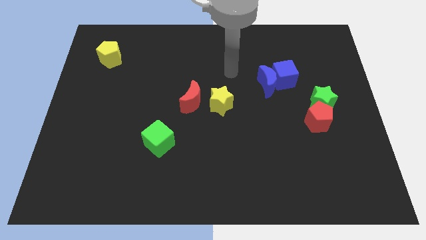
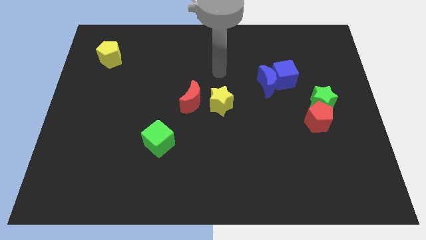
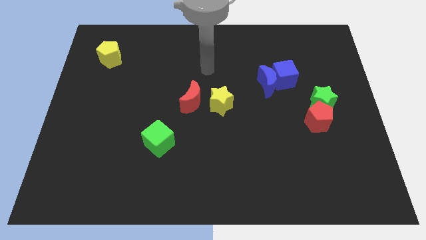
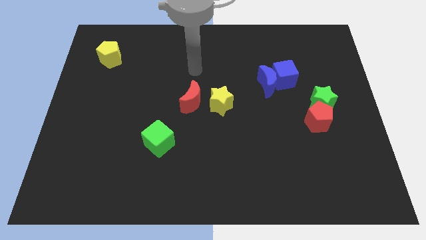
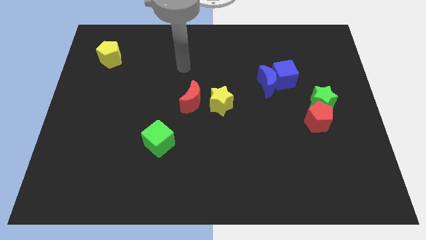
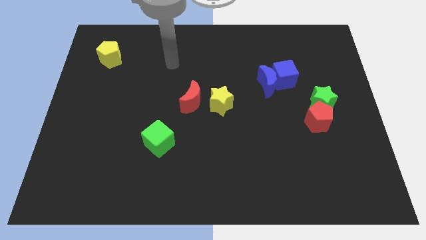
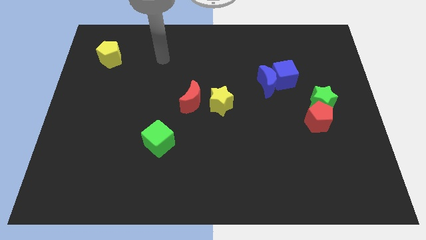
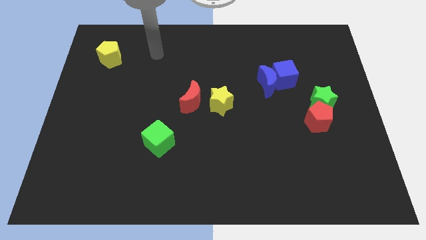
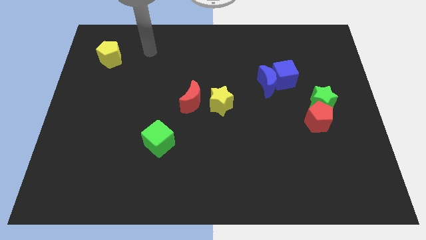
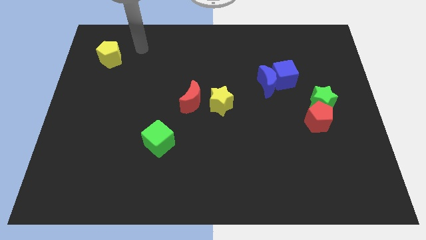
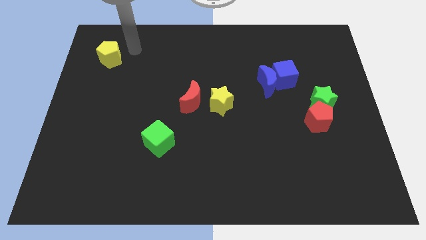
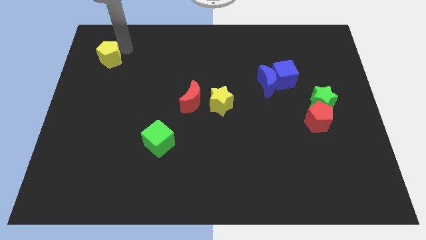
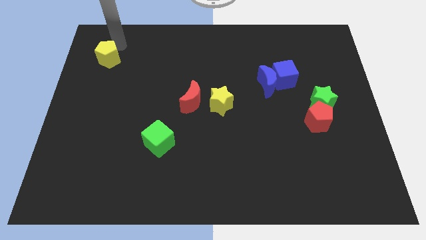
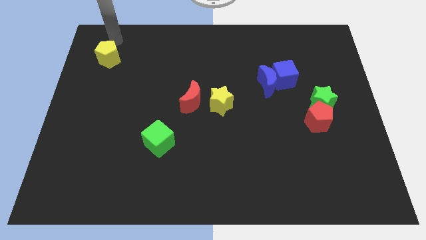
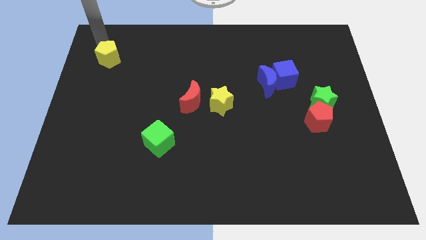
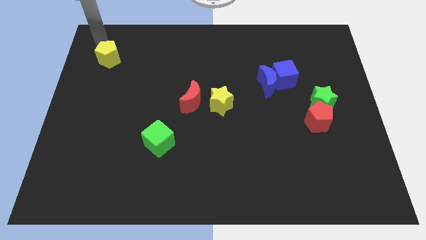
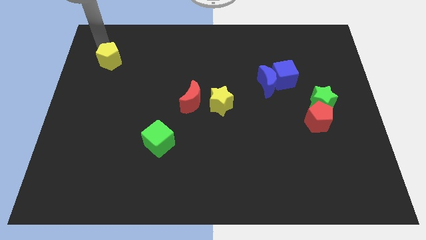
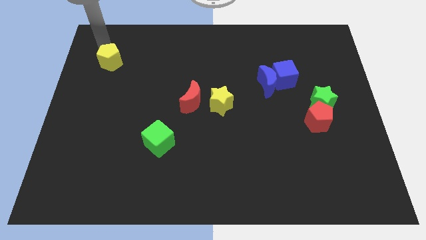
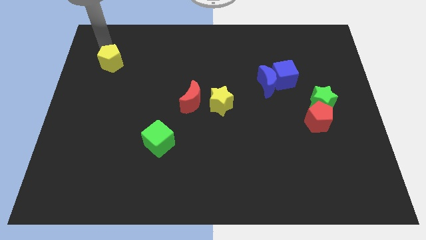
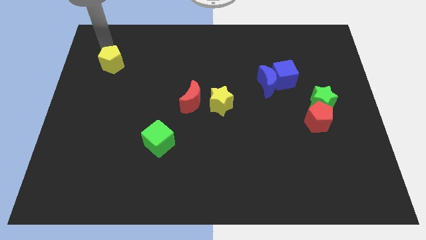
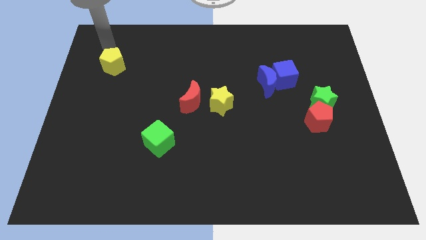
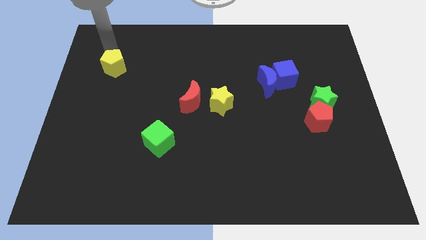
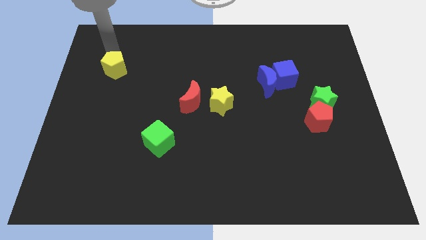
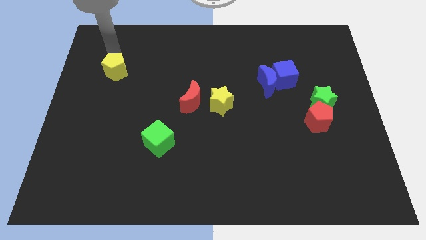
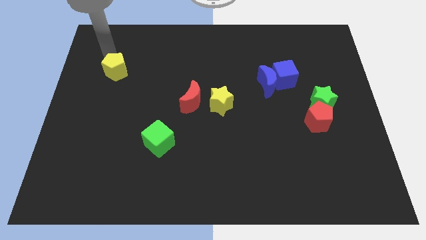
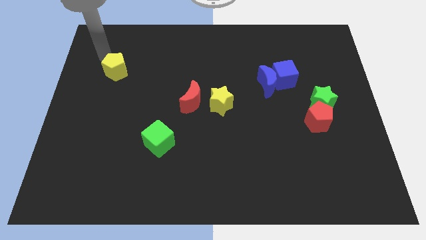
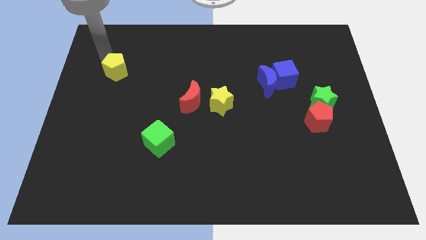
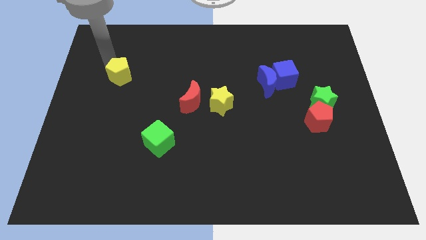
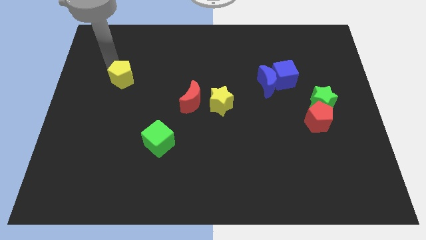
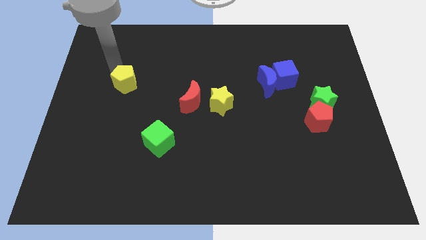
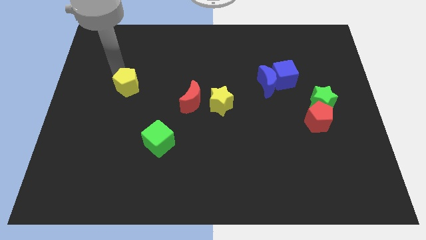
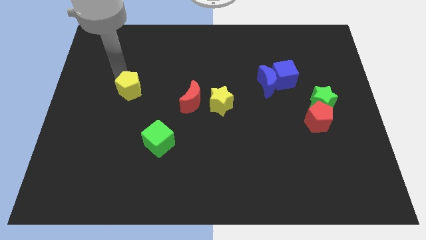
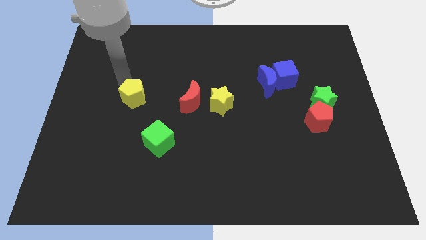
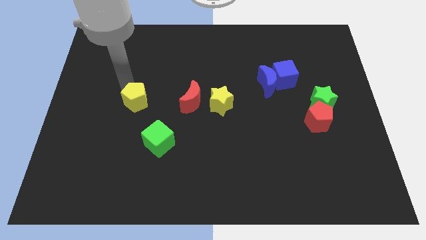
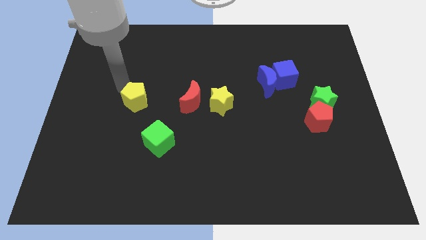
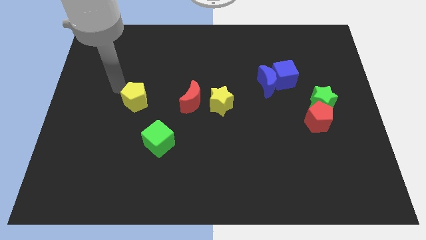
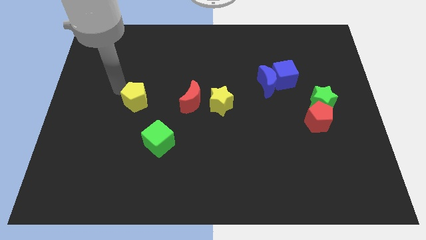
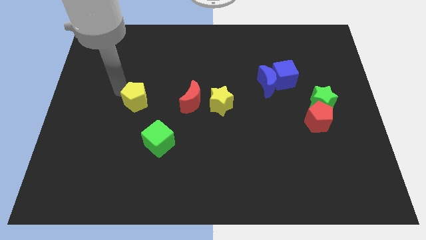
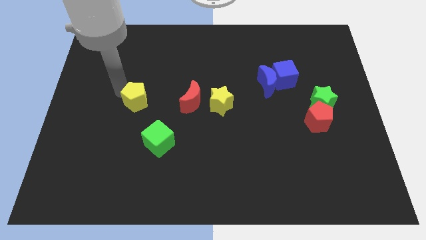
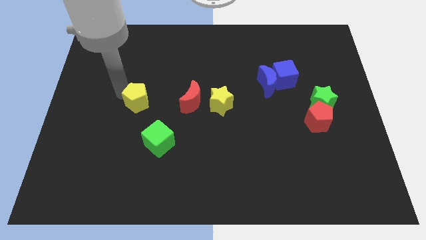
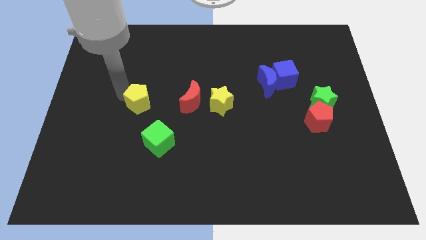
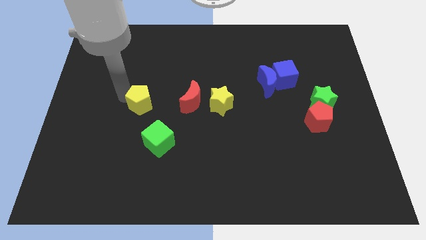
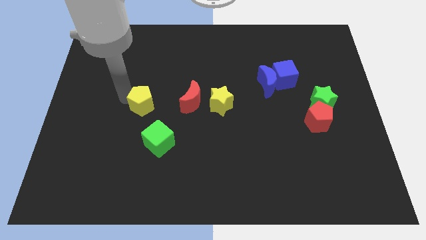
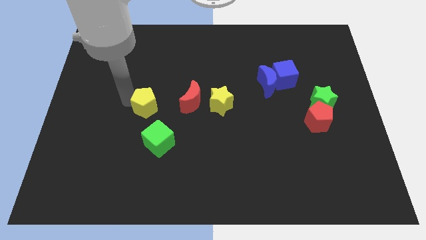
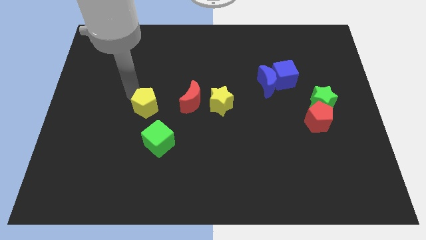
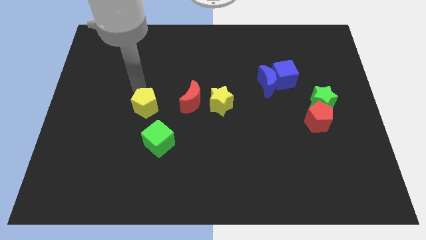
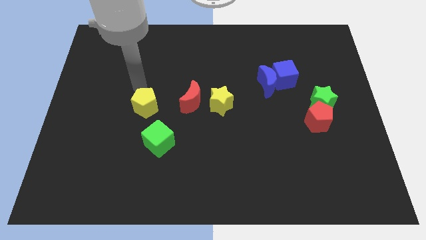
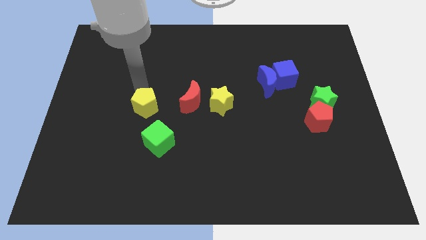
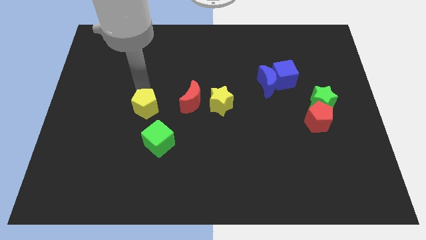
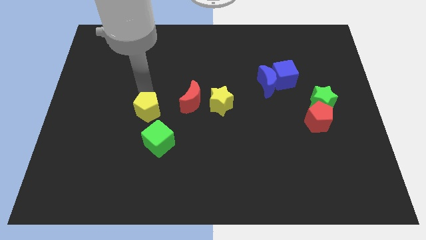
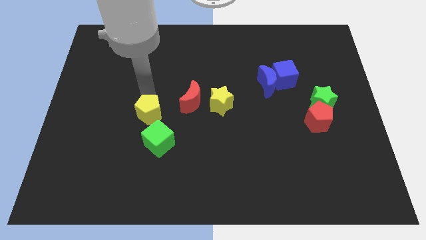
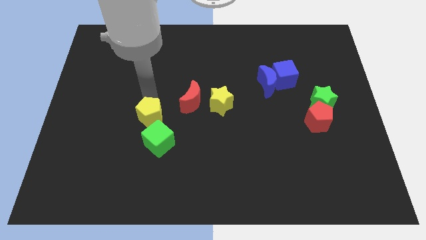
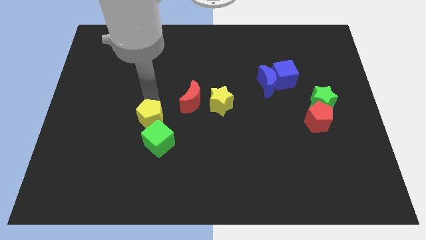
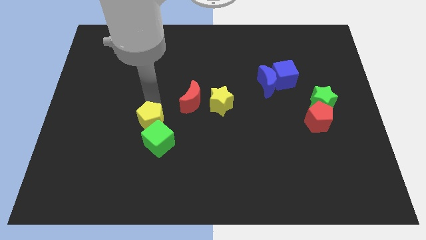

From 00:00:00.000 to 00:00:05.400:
slide the yellow pentagon to the green cube
